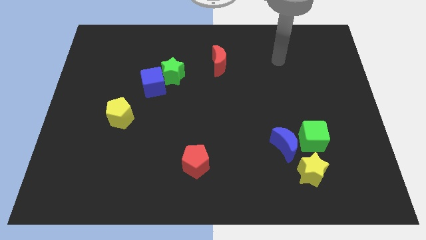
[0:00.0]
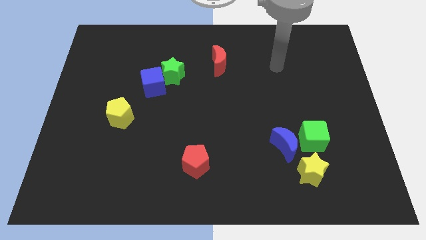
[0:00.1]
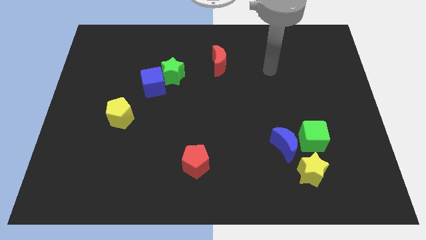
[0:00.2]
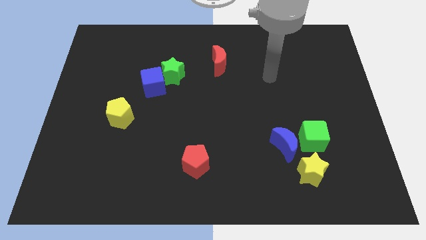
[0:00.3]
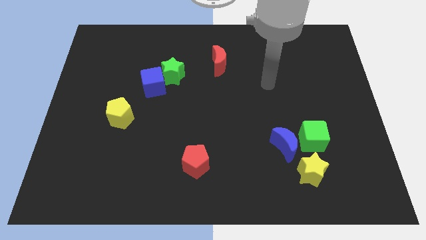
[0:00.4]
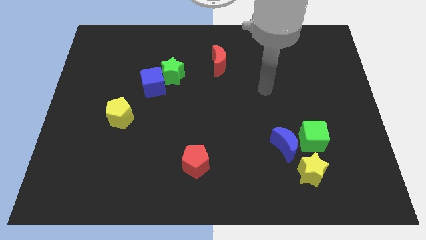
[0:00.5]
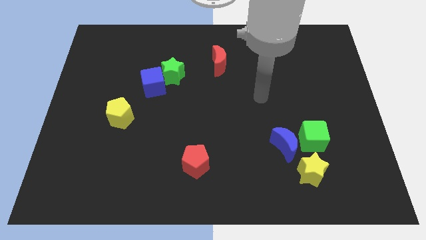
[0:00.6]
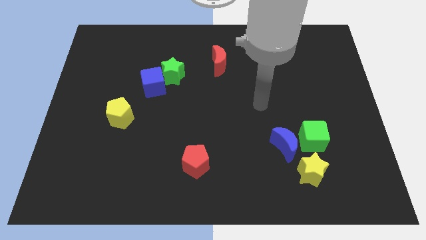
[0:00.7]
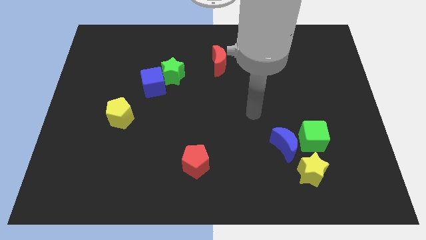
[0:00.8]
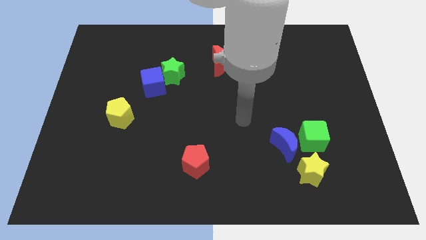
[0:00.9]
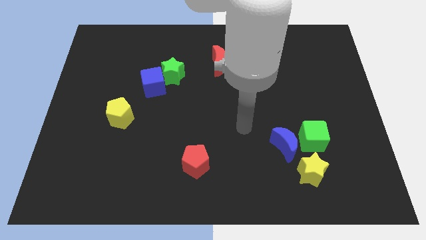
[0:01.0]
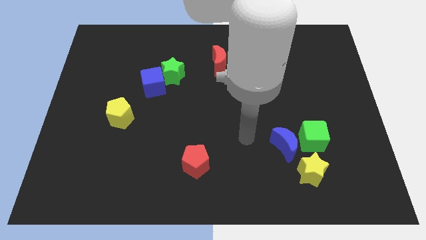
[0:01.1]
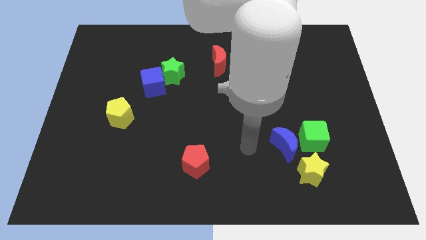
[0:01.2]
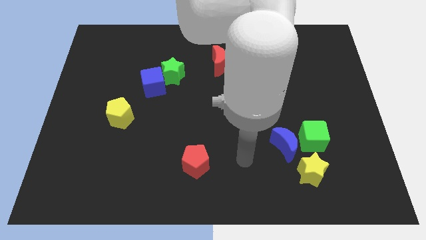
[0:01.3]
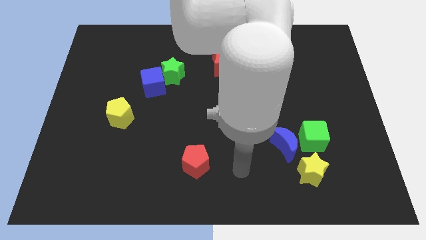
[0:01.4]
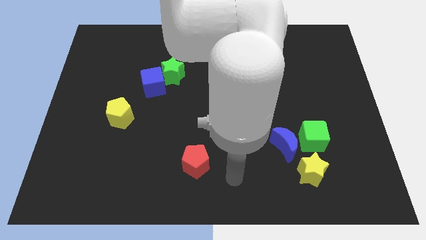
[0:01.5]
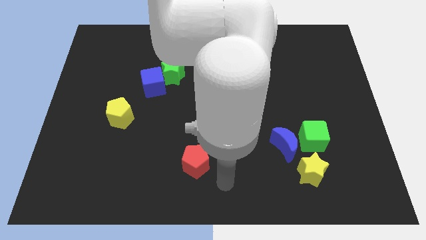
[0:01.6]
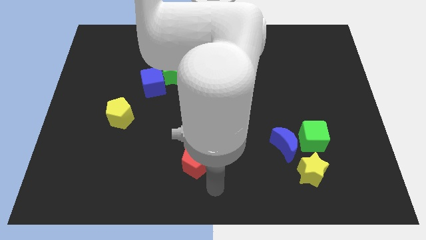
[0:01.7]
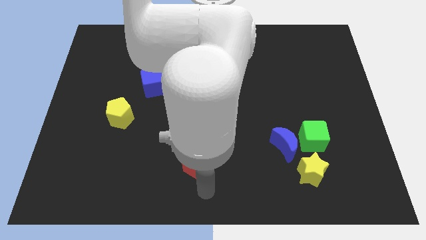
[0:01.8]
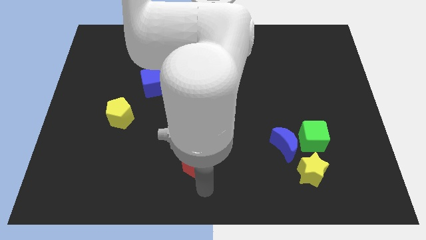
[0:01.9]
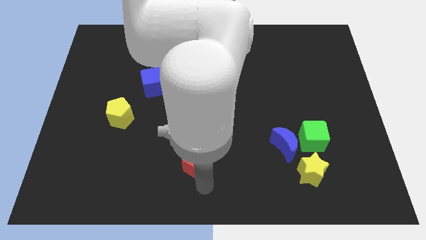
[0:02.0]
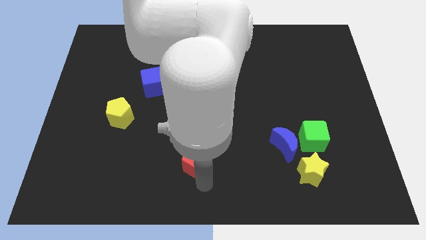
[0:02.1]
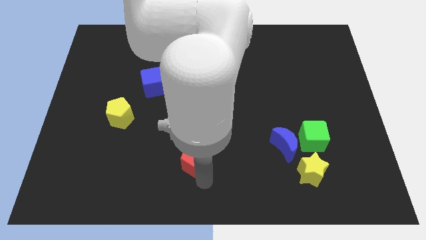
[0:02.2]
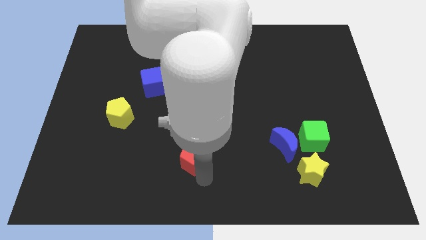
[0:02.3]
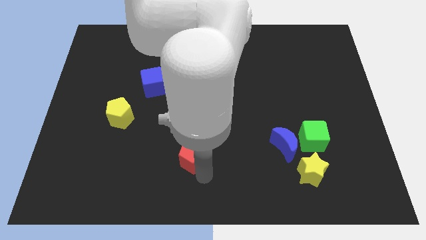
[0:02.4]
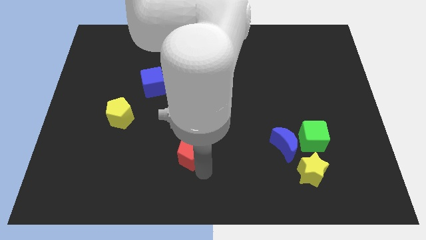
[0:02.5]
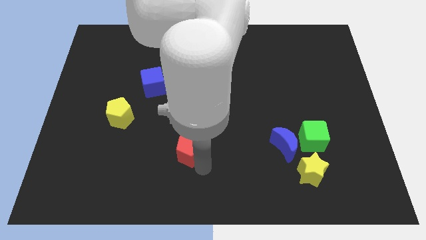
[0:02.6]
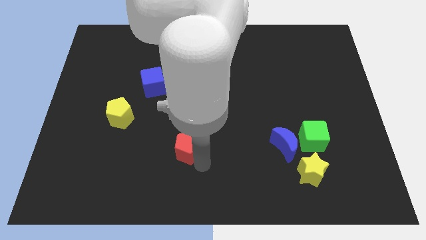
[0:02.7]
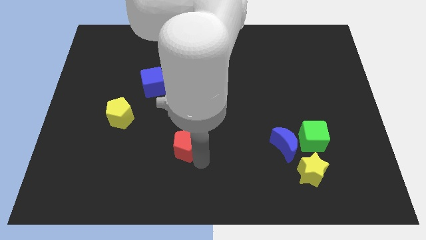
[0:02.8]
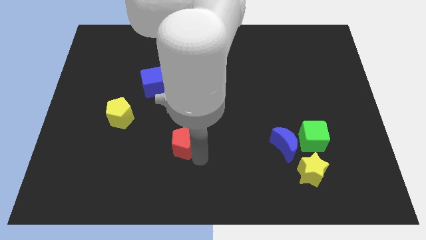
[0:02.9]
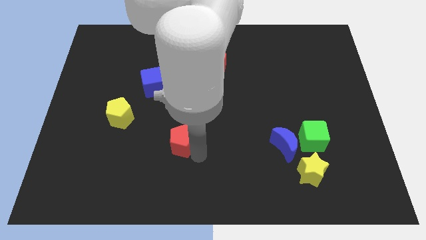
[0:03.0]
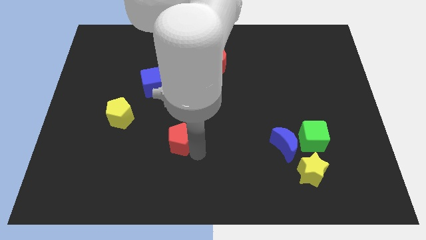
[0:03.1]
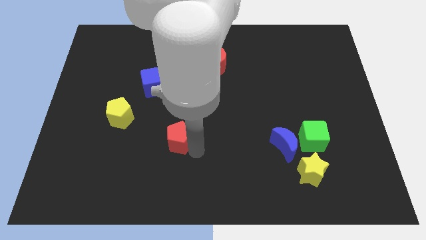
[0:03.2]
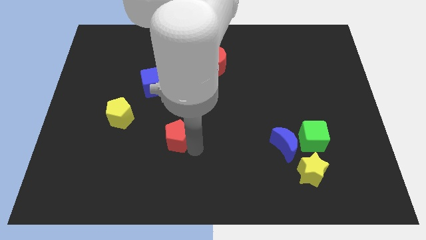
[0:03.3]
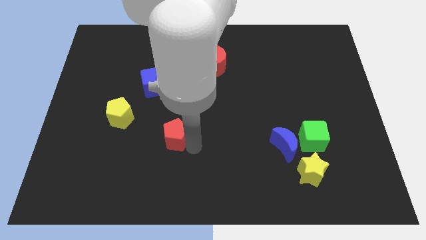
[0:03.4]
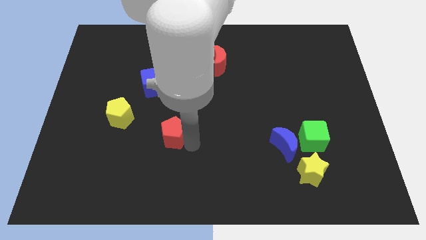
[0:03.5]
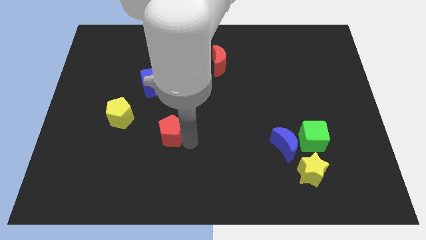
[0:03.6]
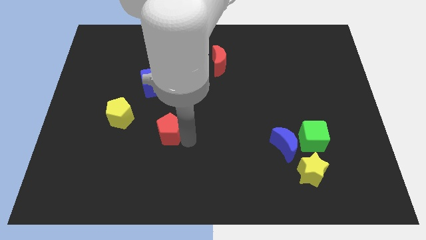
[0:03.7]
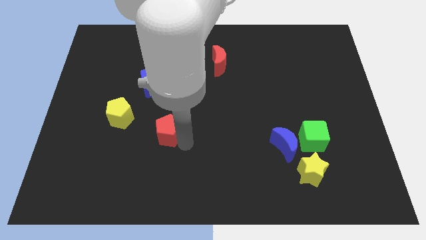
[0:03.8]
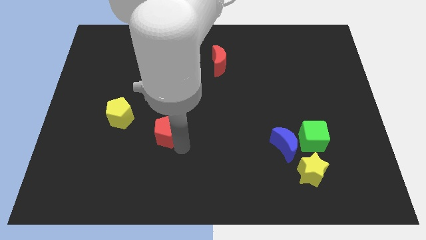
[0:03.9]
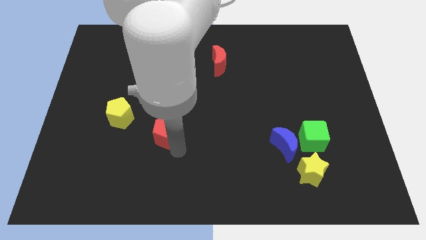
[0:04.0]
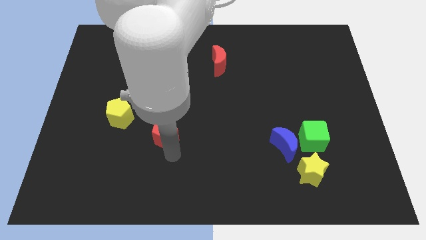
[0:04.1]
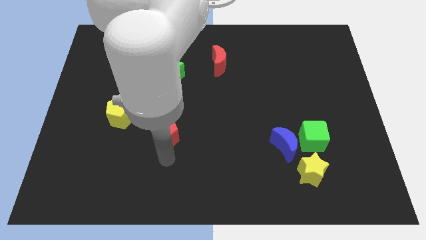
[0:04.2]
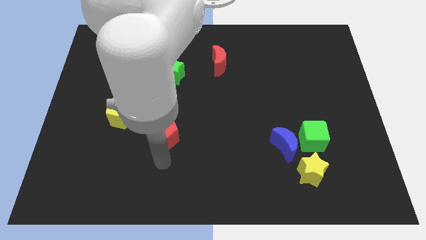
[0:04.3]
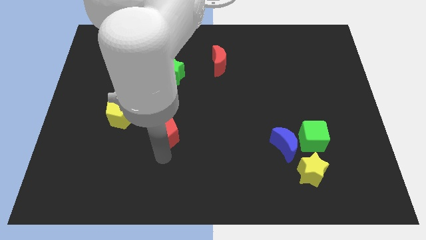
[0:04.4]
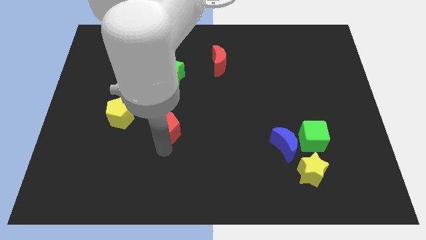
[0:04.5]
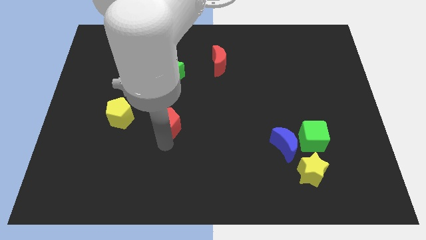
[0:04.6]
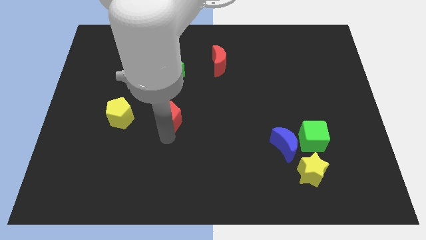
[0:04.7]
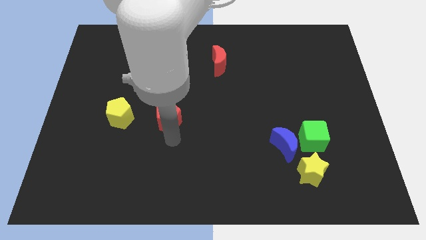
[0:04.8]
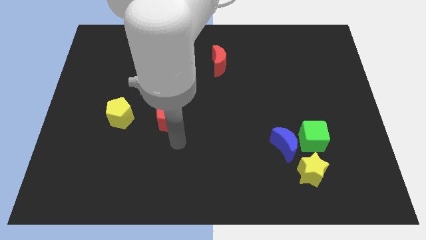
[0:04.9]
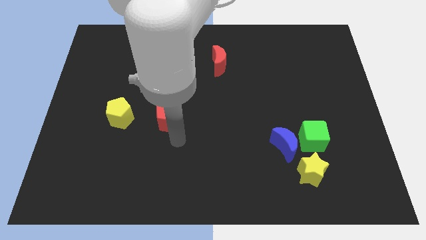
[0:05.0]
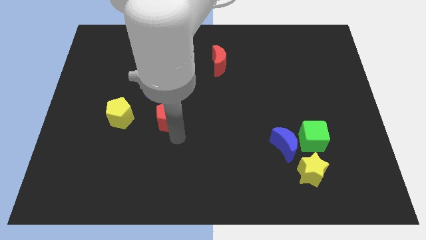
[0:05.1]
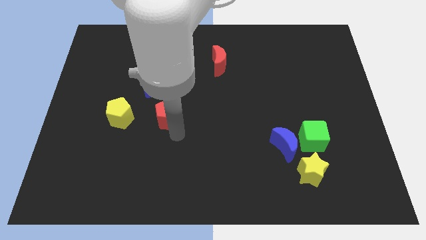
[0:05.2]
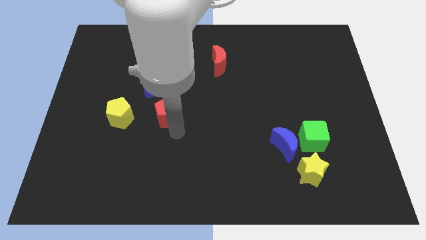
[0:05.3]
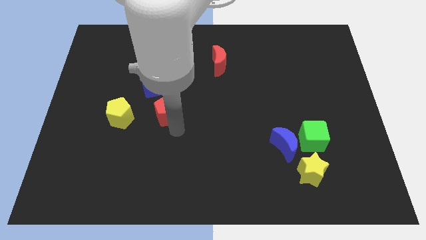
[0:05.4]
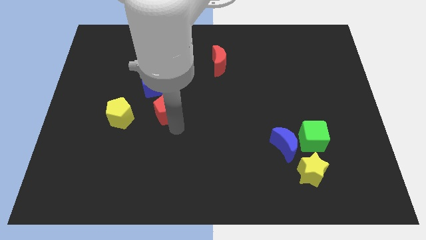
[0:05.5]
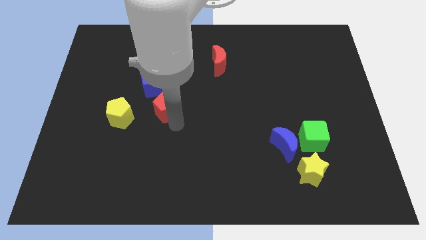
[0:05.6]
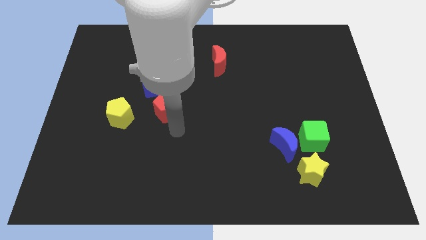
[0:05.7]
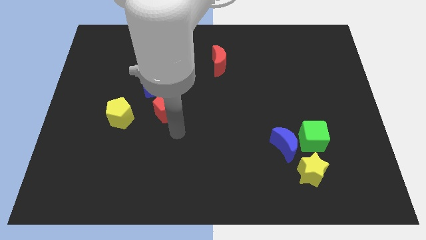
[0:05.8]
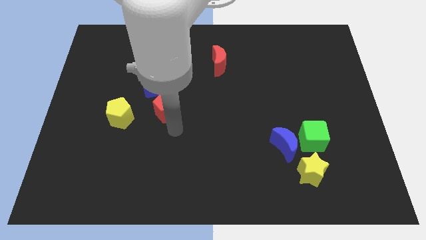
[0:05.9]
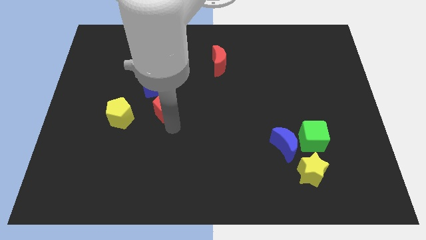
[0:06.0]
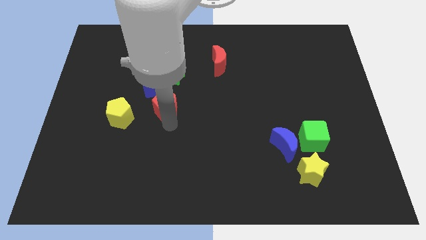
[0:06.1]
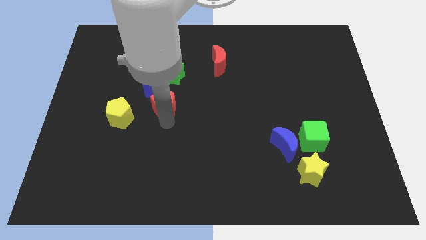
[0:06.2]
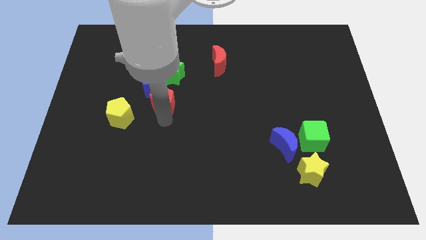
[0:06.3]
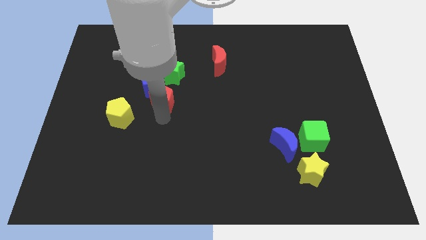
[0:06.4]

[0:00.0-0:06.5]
move the red pentagon to the blue cube
